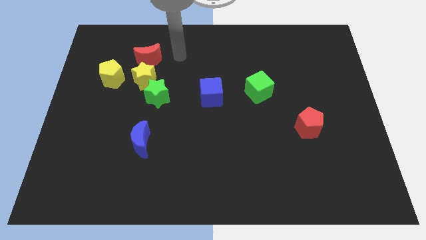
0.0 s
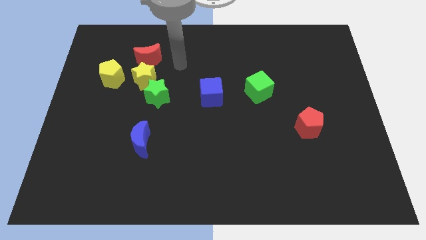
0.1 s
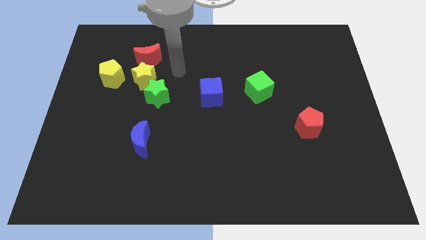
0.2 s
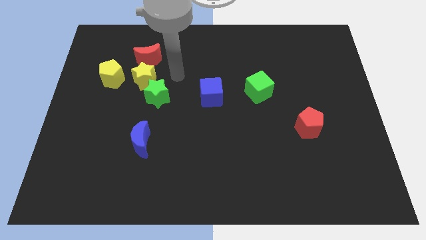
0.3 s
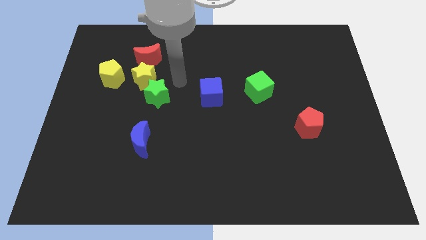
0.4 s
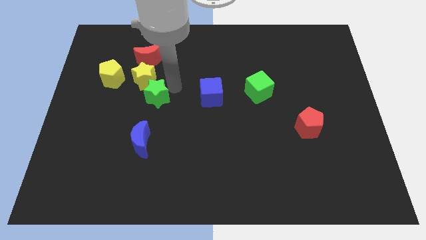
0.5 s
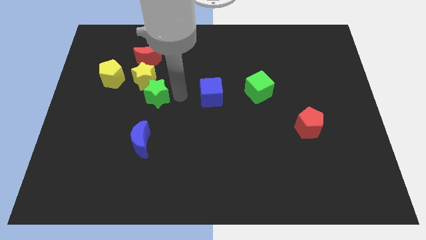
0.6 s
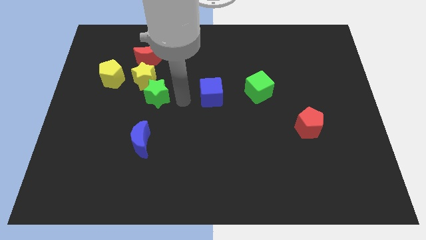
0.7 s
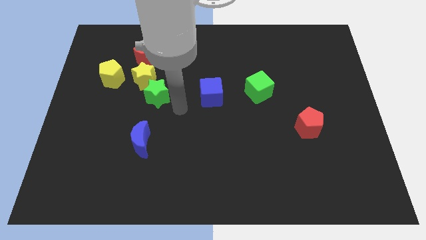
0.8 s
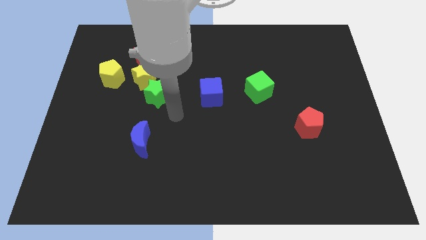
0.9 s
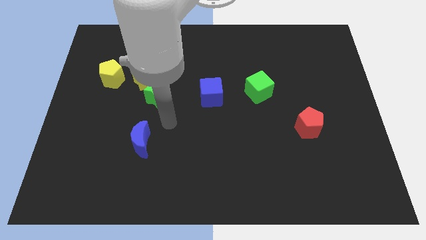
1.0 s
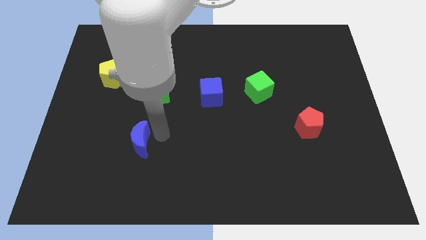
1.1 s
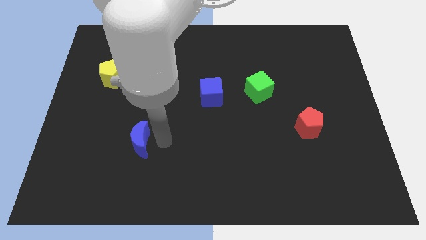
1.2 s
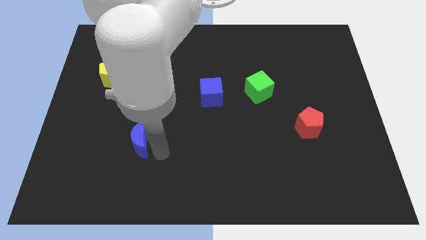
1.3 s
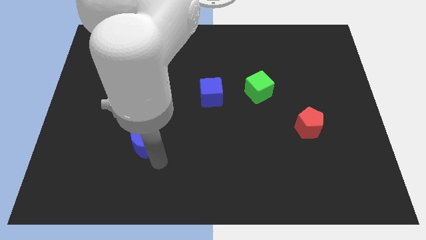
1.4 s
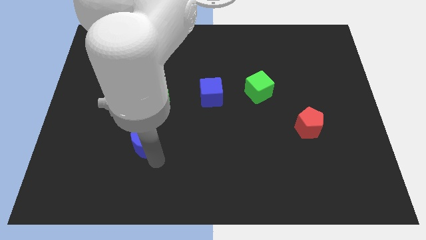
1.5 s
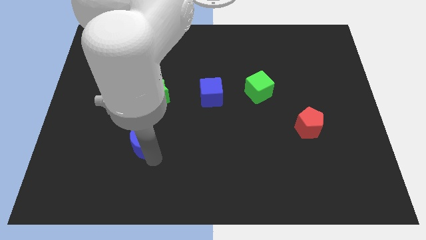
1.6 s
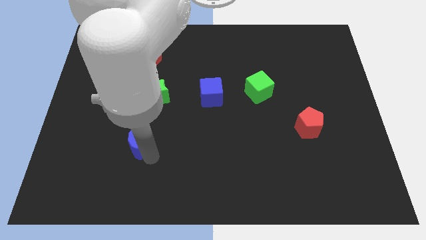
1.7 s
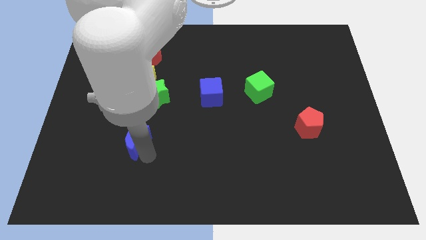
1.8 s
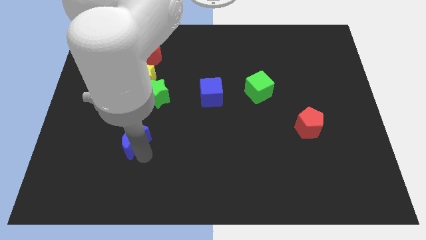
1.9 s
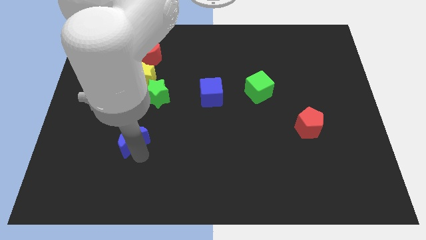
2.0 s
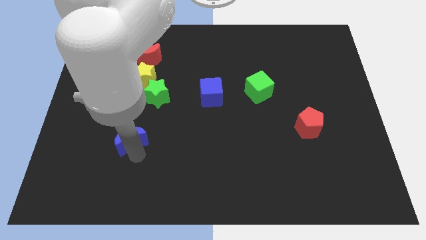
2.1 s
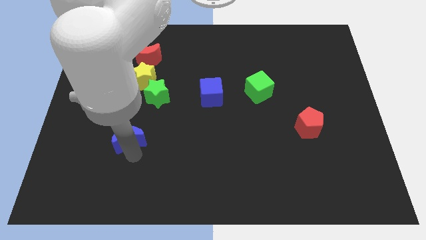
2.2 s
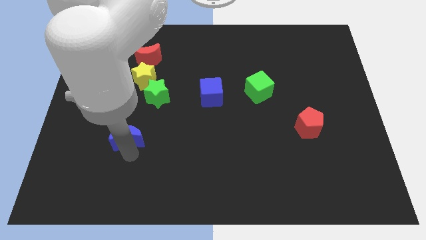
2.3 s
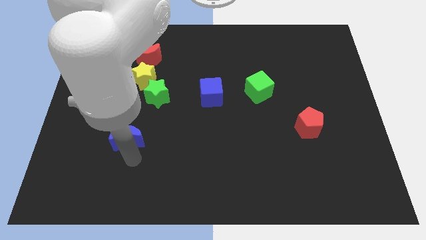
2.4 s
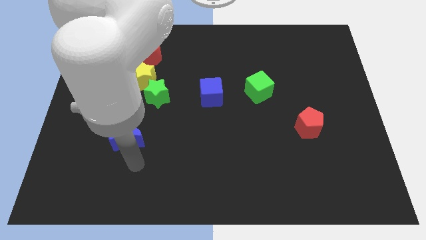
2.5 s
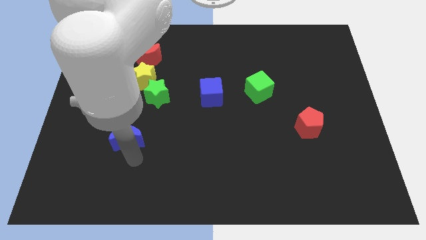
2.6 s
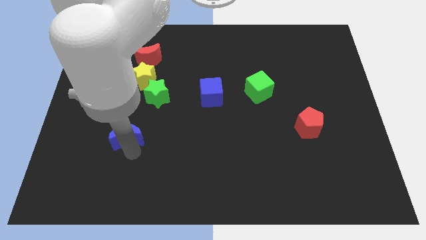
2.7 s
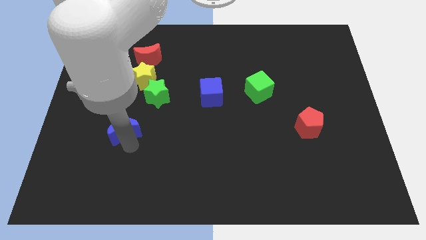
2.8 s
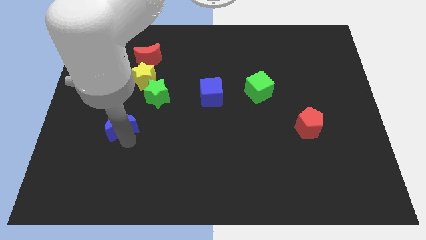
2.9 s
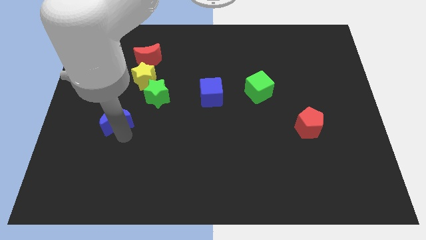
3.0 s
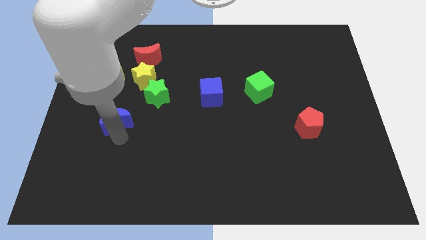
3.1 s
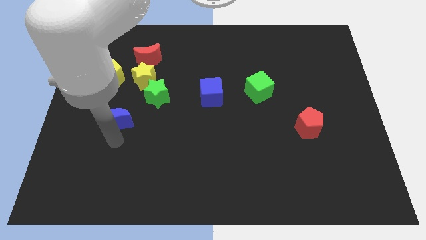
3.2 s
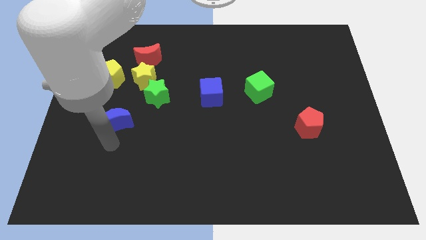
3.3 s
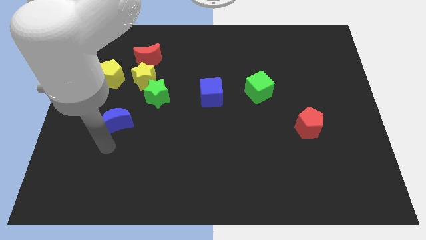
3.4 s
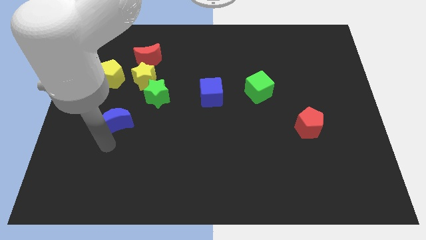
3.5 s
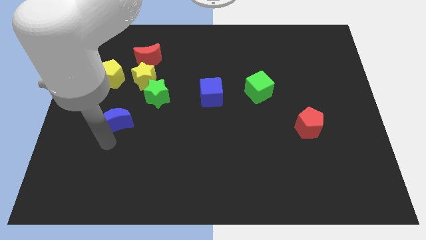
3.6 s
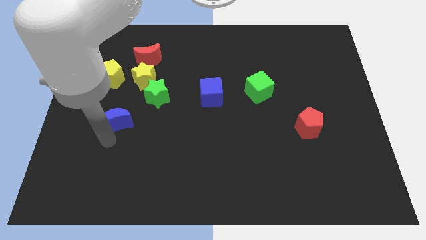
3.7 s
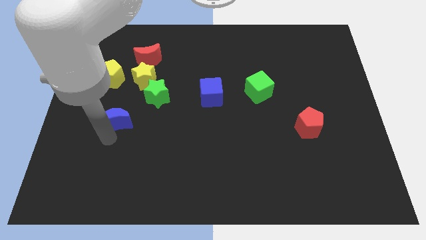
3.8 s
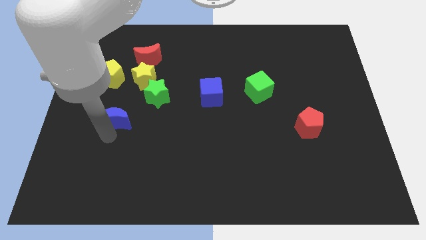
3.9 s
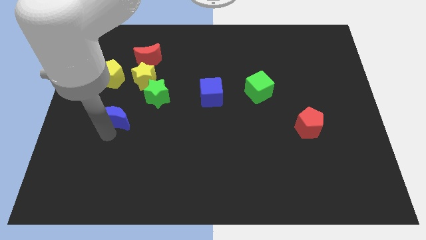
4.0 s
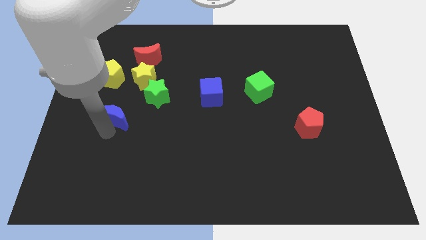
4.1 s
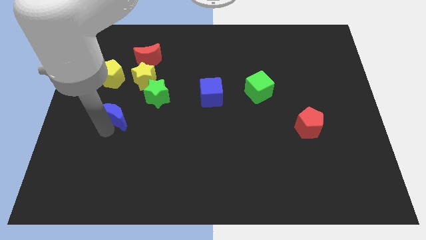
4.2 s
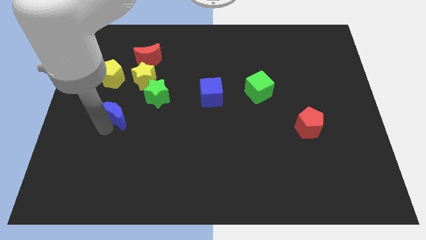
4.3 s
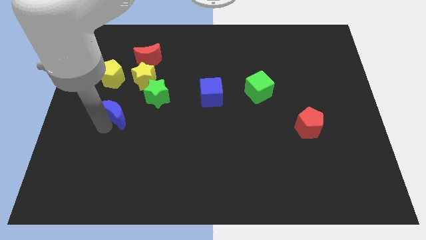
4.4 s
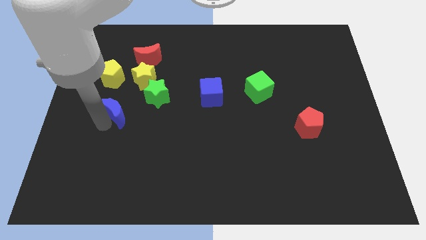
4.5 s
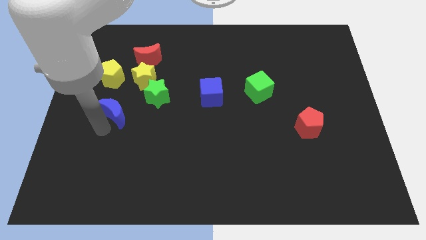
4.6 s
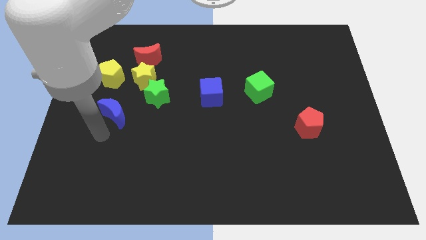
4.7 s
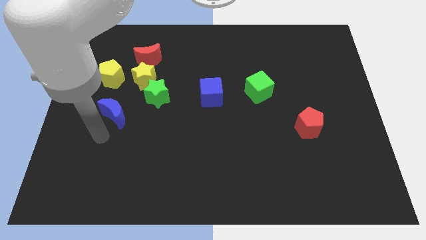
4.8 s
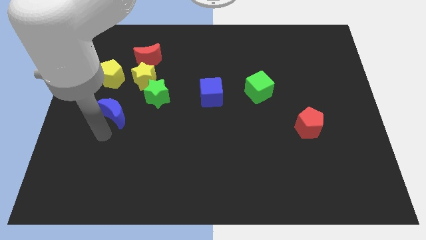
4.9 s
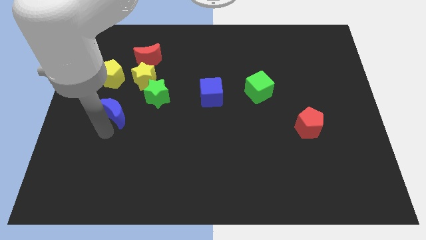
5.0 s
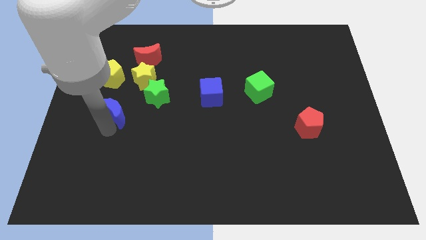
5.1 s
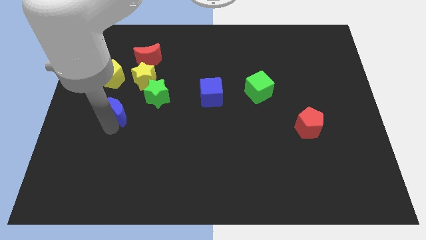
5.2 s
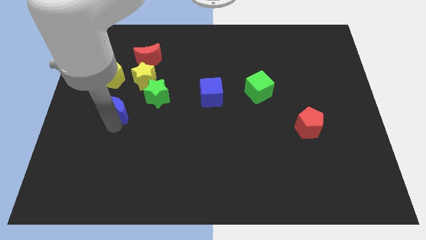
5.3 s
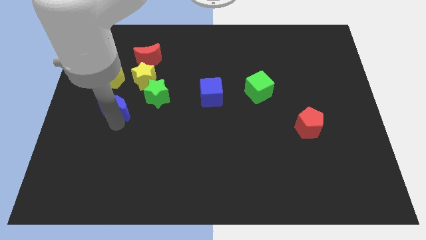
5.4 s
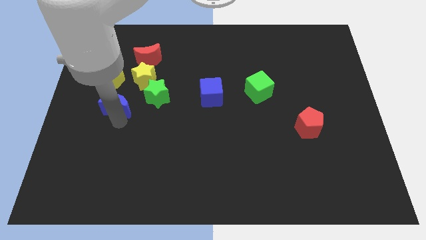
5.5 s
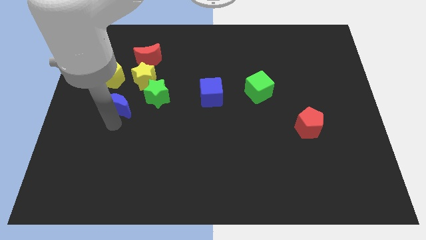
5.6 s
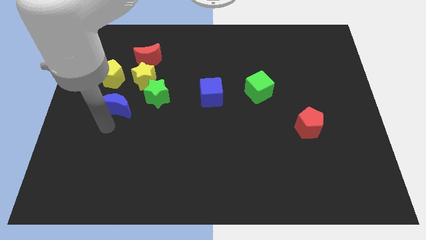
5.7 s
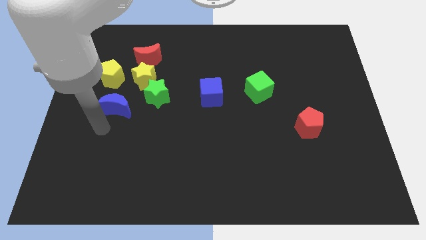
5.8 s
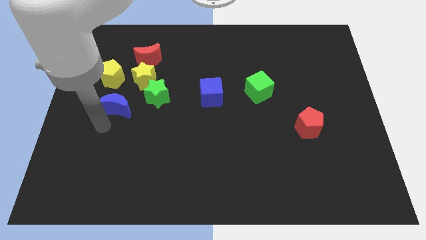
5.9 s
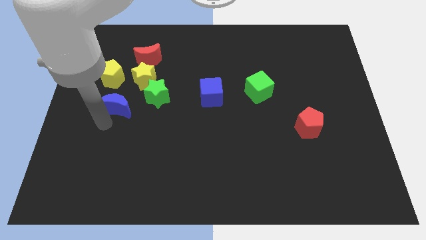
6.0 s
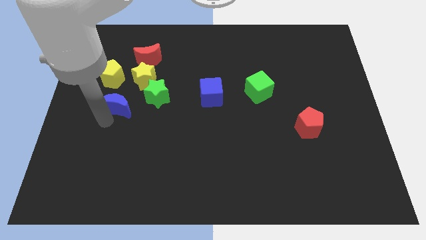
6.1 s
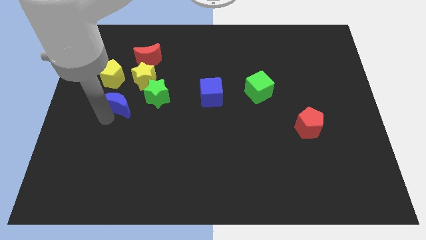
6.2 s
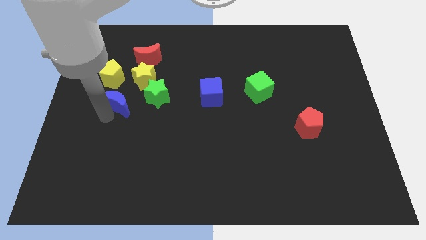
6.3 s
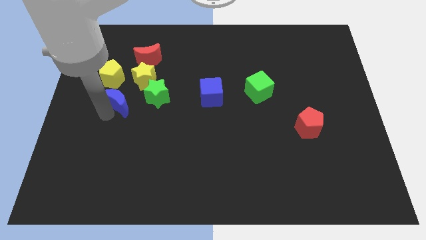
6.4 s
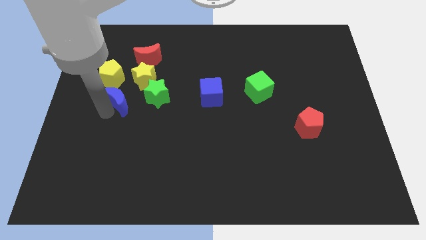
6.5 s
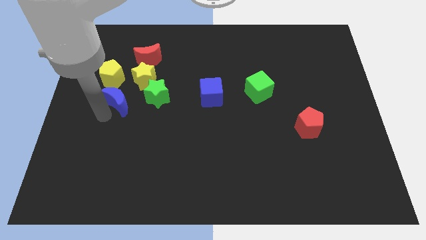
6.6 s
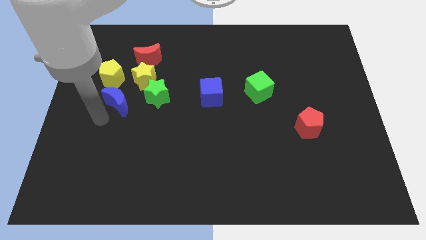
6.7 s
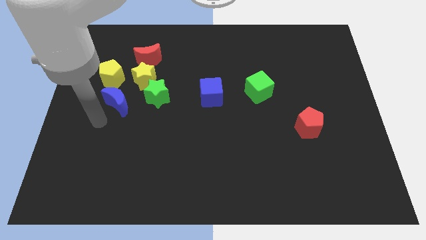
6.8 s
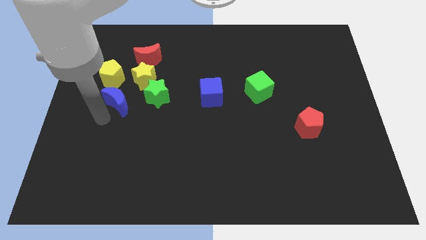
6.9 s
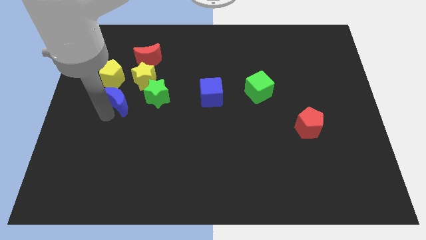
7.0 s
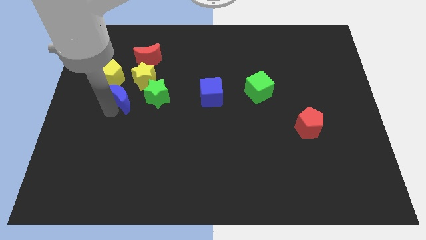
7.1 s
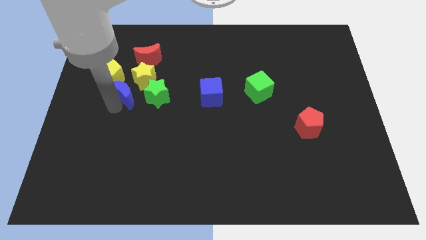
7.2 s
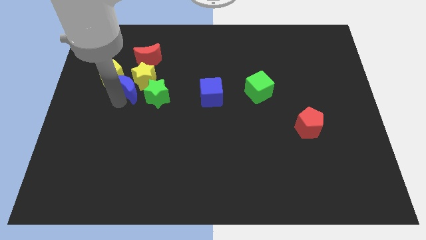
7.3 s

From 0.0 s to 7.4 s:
slide the blue moon towards the yellow star
